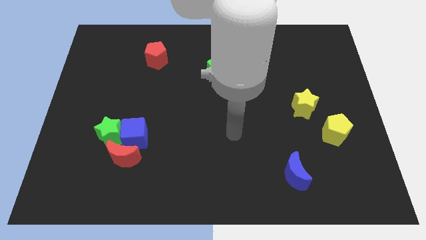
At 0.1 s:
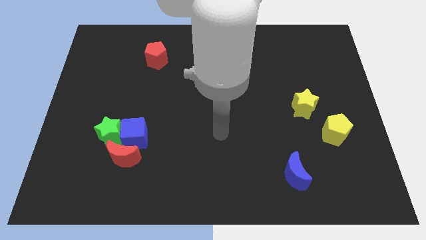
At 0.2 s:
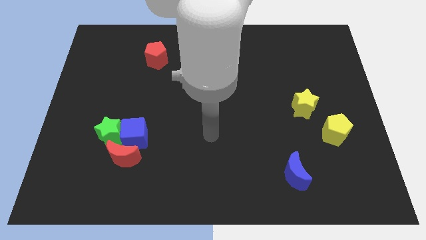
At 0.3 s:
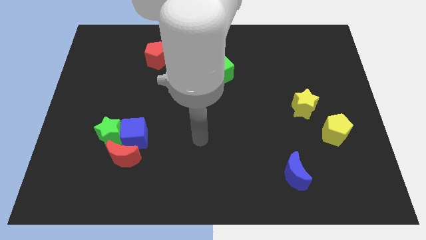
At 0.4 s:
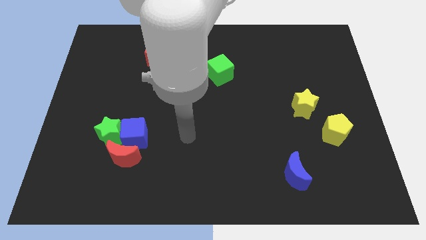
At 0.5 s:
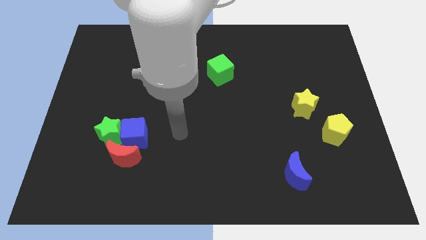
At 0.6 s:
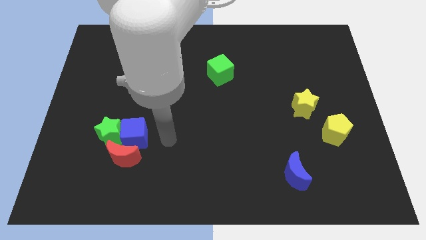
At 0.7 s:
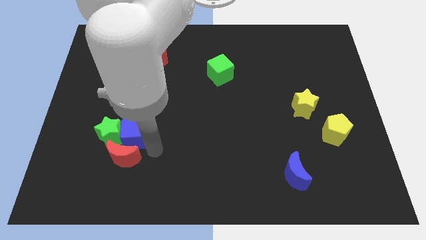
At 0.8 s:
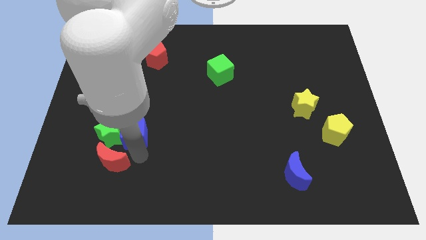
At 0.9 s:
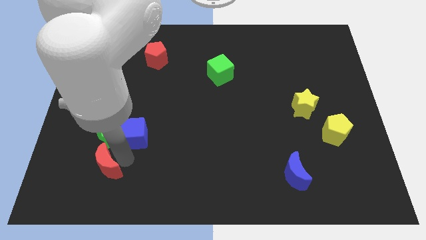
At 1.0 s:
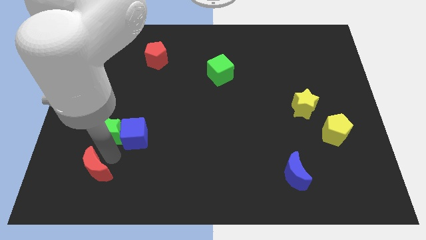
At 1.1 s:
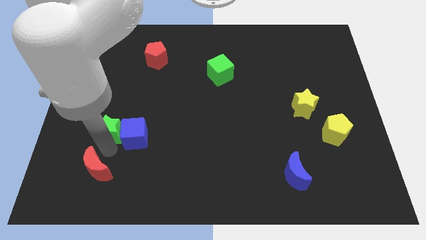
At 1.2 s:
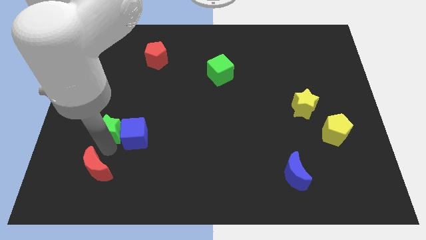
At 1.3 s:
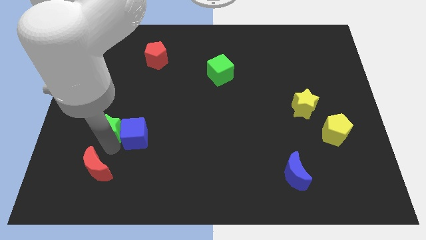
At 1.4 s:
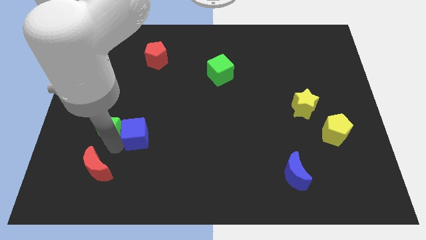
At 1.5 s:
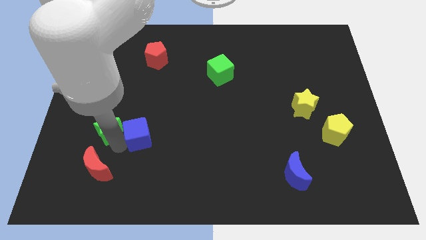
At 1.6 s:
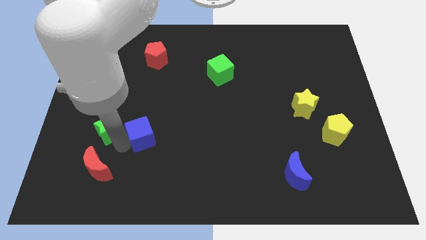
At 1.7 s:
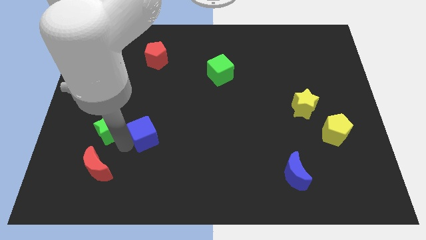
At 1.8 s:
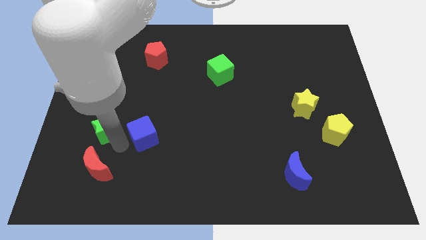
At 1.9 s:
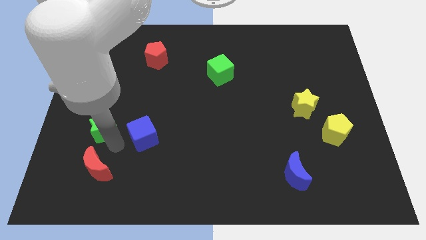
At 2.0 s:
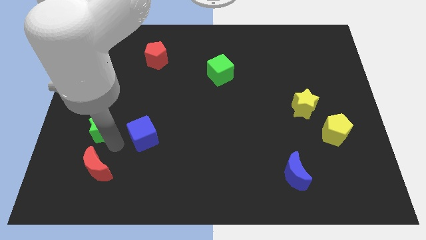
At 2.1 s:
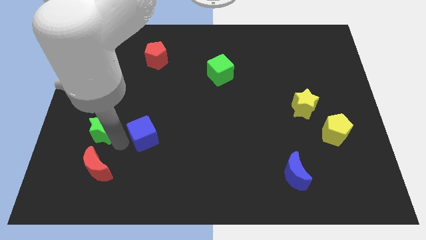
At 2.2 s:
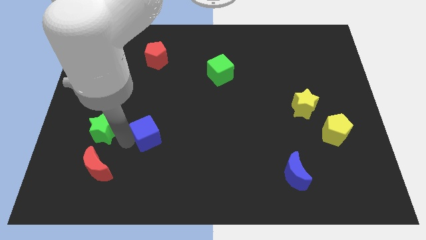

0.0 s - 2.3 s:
separate the blue cube from the green star and red moon

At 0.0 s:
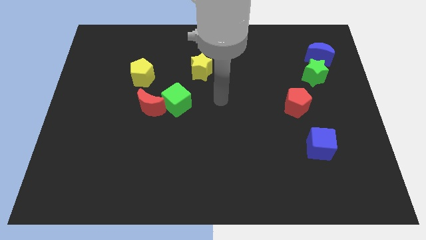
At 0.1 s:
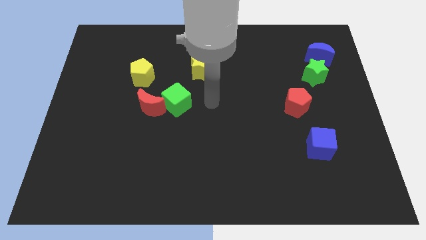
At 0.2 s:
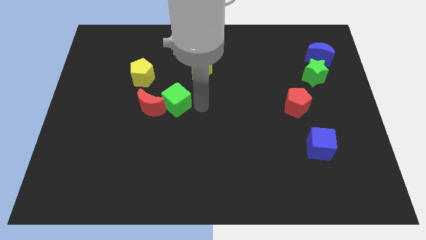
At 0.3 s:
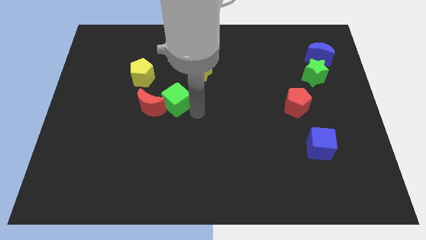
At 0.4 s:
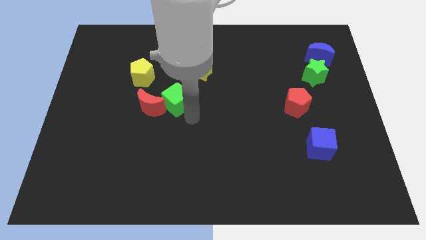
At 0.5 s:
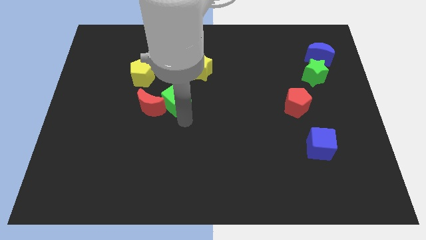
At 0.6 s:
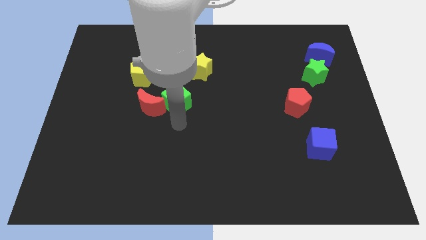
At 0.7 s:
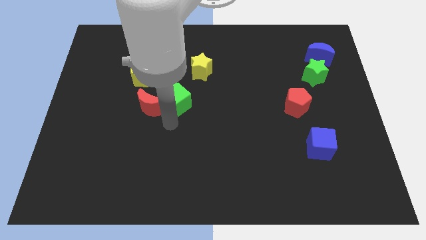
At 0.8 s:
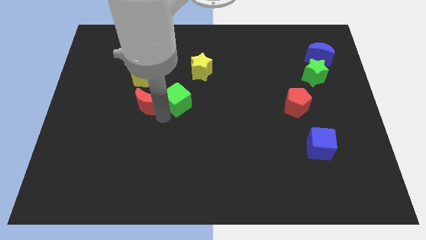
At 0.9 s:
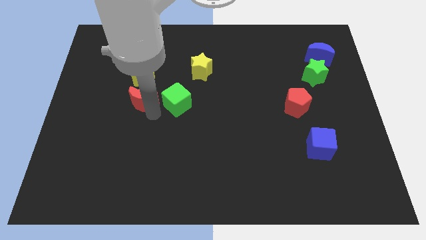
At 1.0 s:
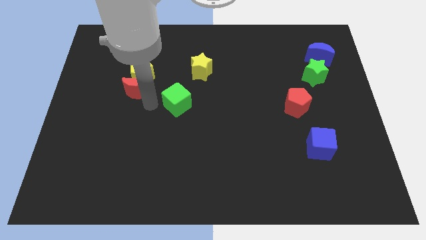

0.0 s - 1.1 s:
move the green cube away from the red moon

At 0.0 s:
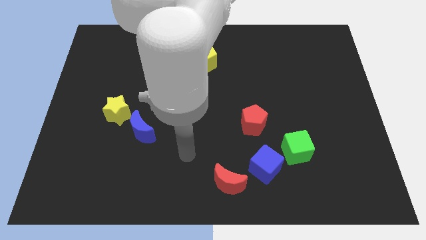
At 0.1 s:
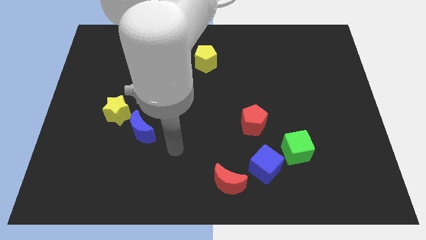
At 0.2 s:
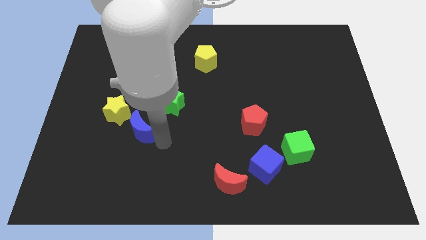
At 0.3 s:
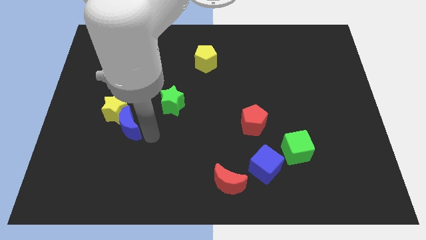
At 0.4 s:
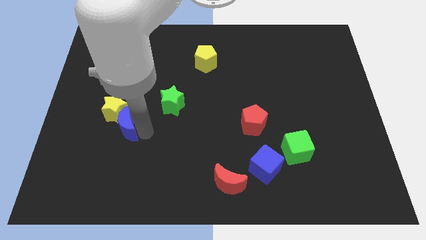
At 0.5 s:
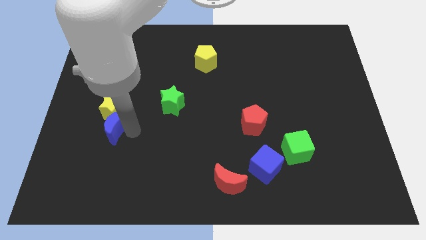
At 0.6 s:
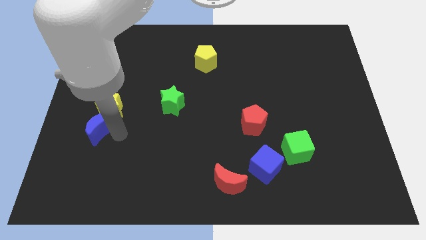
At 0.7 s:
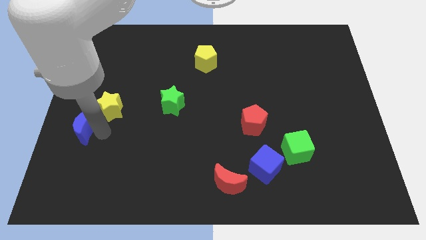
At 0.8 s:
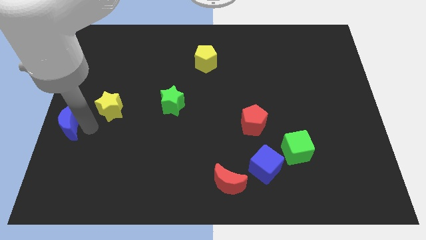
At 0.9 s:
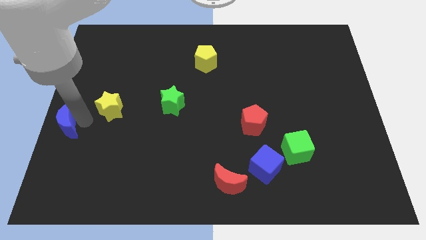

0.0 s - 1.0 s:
pull the yellow star apart from the blue moon

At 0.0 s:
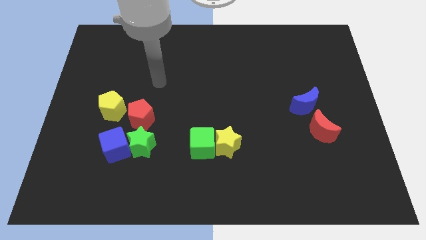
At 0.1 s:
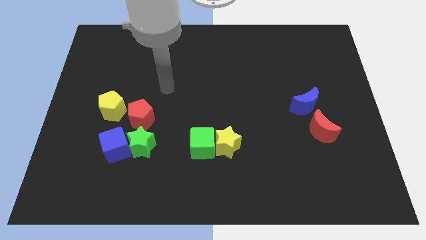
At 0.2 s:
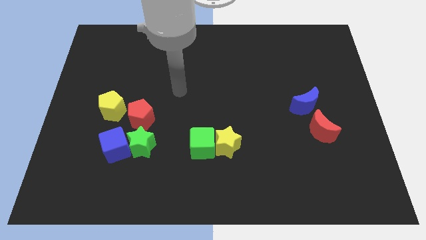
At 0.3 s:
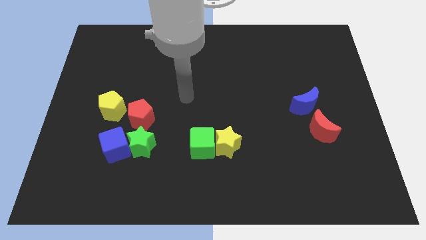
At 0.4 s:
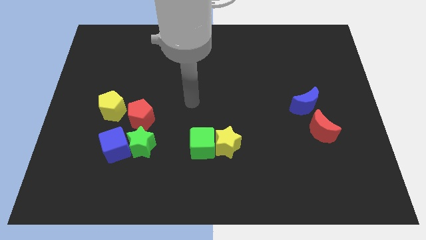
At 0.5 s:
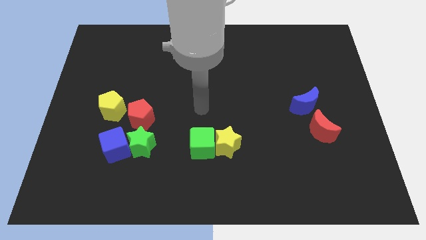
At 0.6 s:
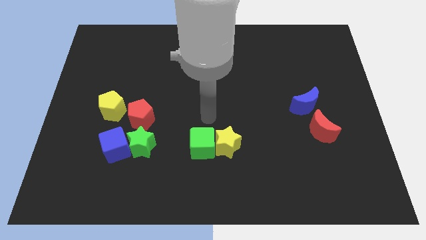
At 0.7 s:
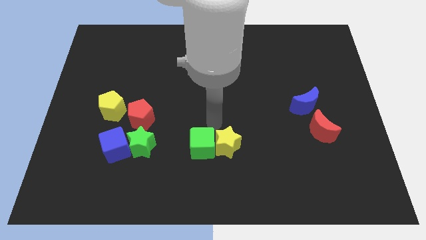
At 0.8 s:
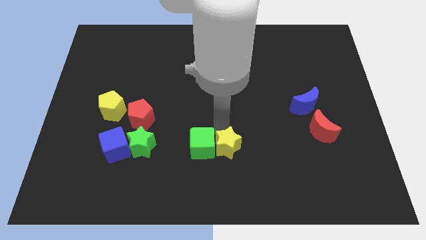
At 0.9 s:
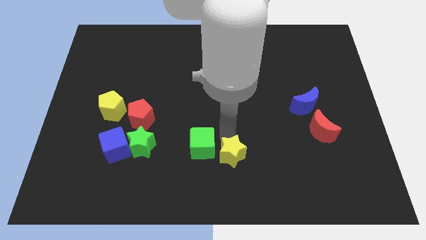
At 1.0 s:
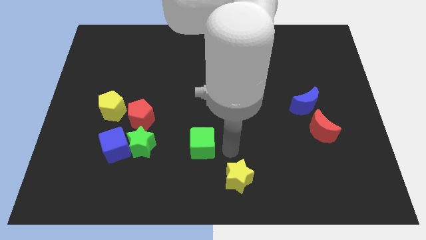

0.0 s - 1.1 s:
move the green cube away from the yellow star

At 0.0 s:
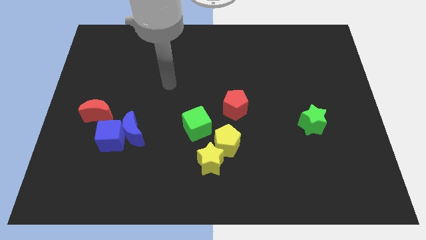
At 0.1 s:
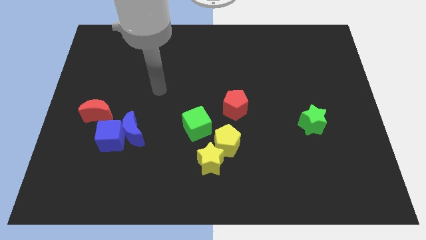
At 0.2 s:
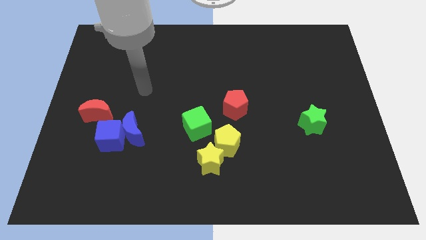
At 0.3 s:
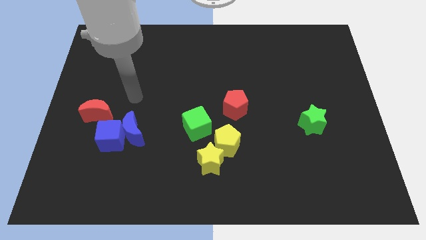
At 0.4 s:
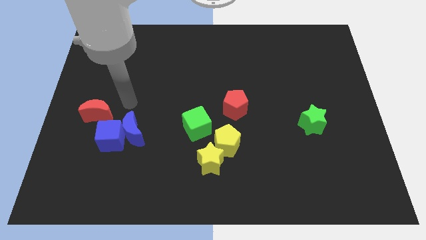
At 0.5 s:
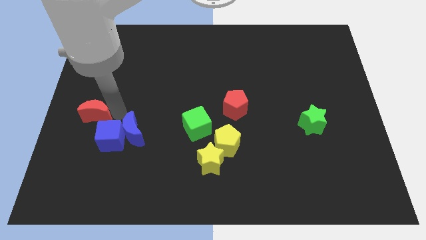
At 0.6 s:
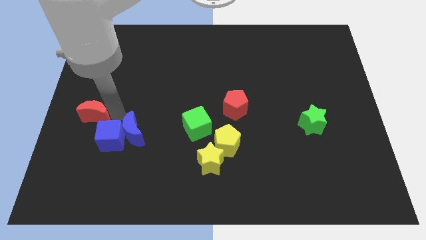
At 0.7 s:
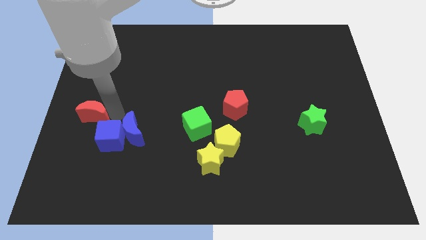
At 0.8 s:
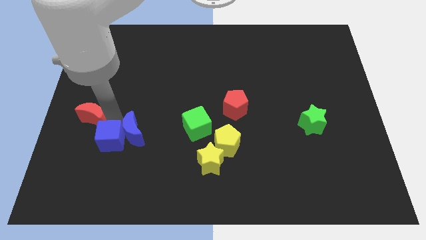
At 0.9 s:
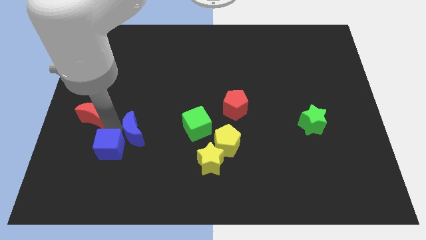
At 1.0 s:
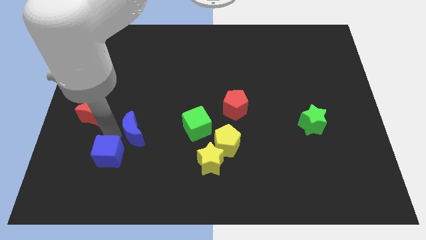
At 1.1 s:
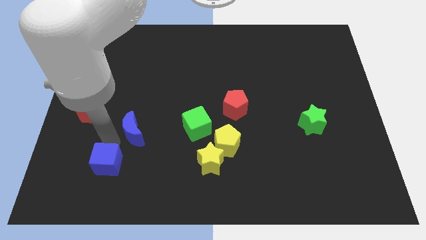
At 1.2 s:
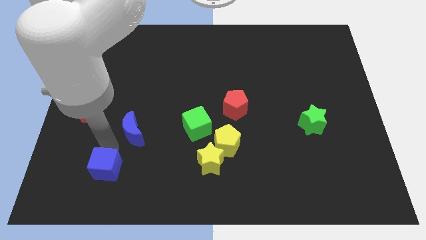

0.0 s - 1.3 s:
separate the blue cube from the blue moon and red moon

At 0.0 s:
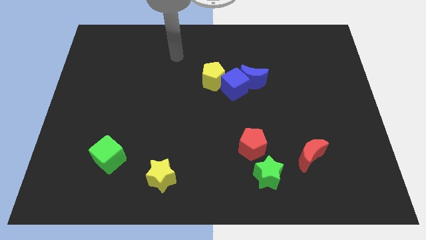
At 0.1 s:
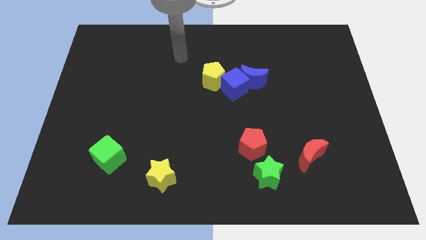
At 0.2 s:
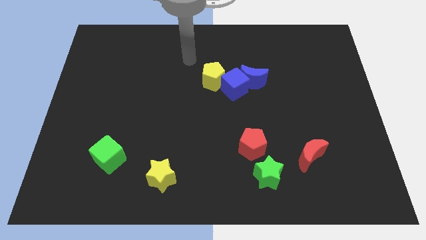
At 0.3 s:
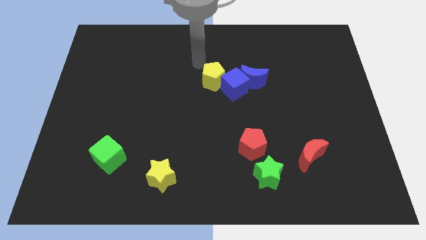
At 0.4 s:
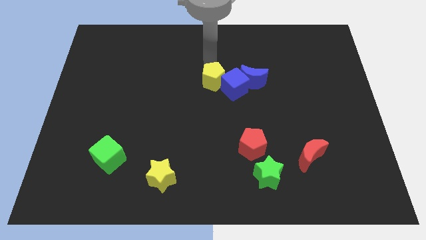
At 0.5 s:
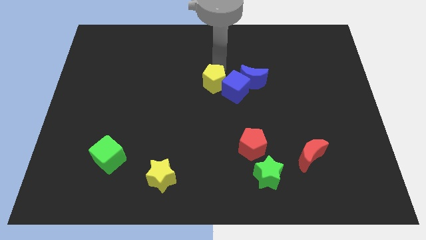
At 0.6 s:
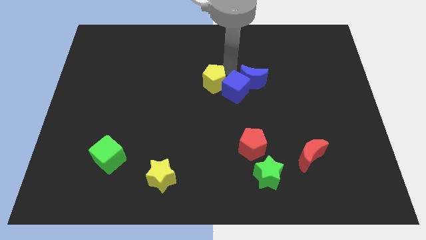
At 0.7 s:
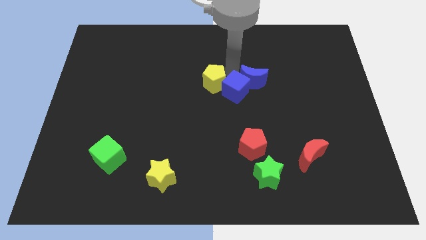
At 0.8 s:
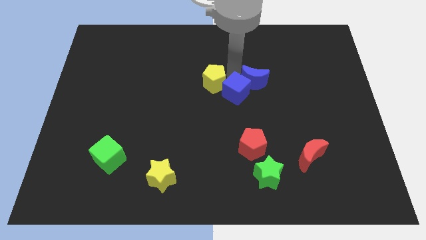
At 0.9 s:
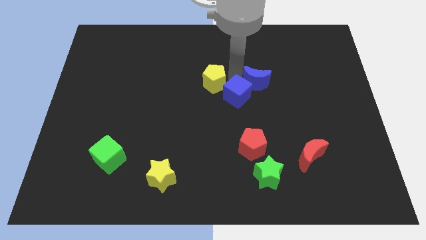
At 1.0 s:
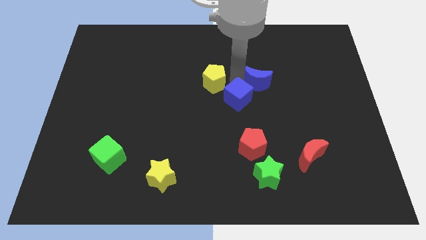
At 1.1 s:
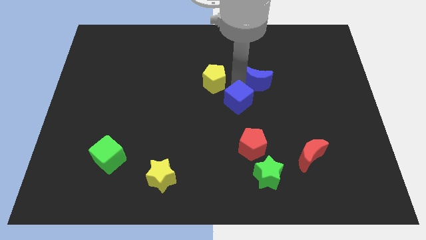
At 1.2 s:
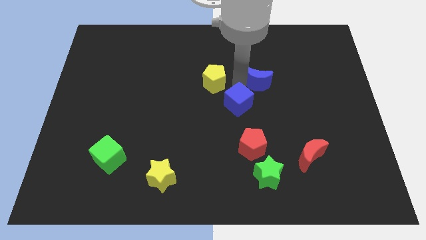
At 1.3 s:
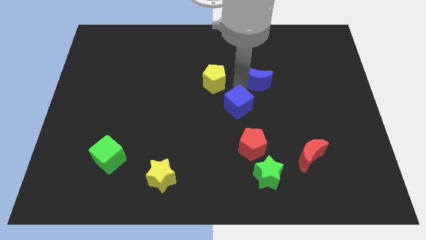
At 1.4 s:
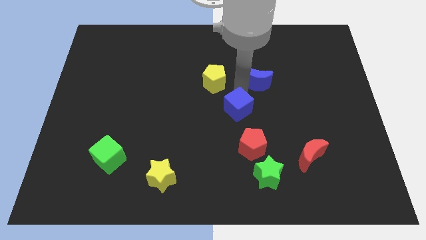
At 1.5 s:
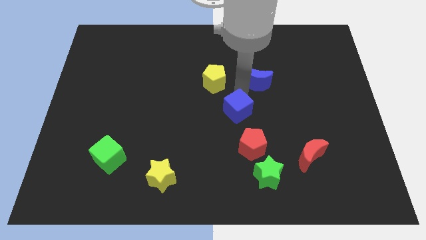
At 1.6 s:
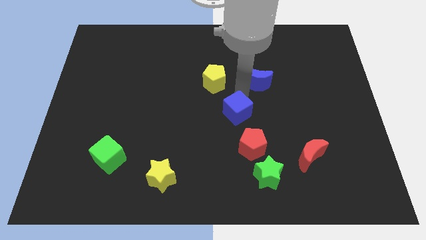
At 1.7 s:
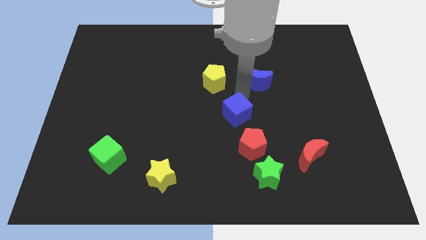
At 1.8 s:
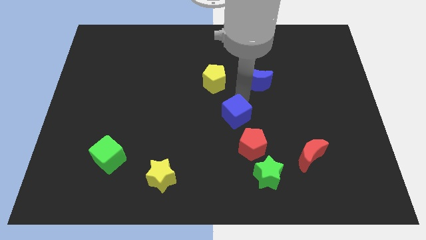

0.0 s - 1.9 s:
separate the blue cube from the blue moon and yellow pentagon

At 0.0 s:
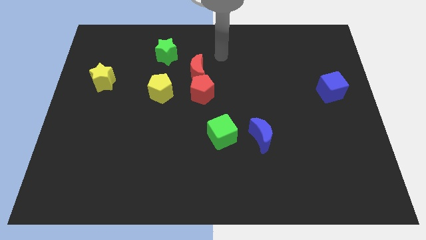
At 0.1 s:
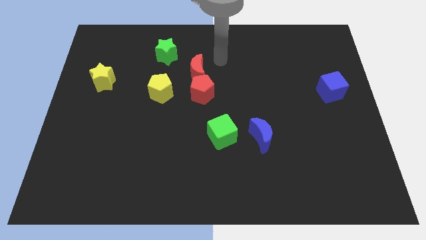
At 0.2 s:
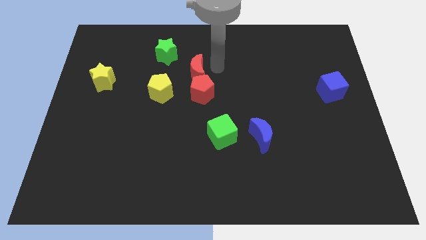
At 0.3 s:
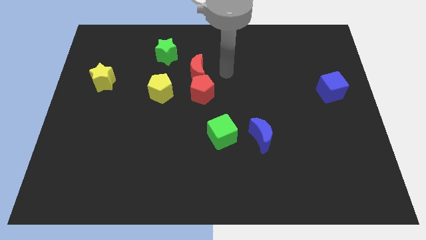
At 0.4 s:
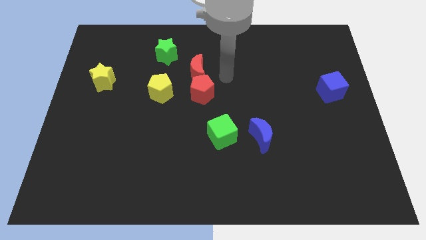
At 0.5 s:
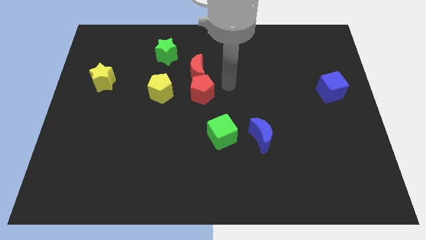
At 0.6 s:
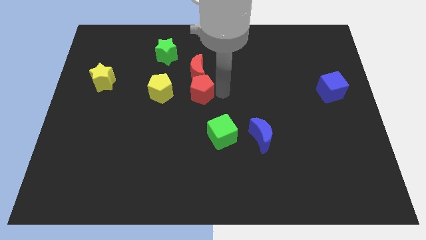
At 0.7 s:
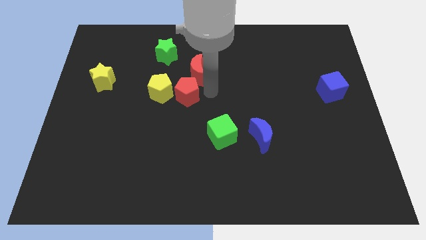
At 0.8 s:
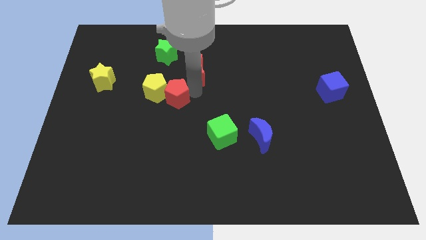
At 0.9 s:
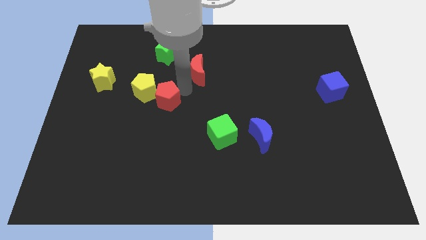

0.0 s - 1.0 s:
pull the red moon apart from the red pentagon
